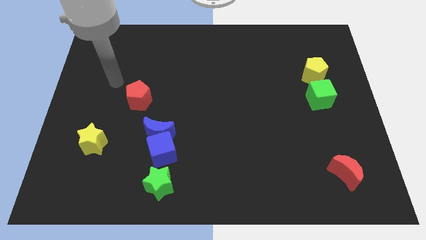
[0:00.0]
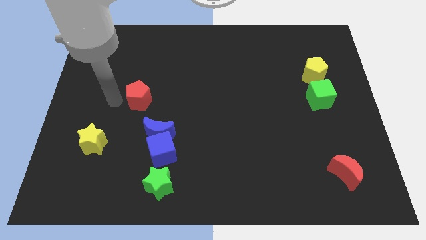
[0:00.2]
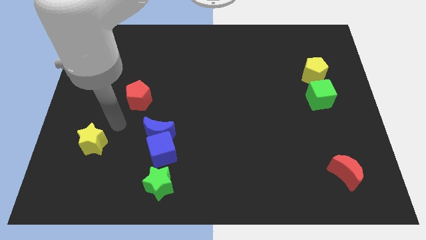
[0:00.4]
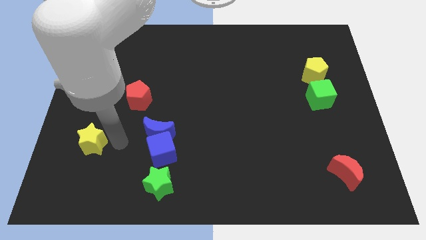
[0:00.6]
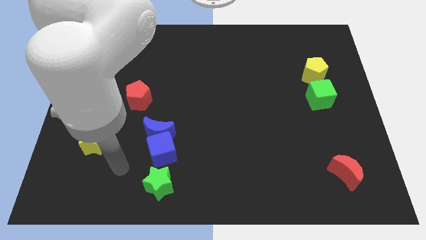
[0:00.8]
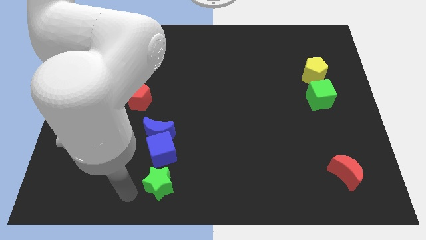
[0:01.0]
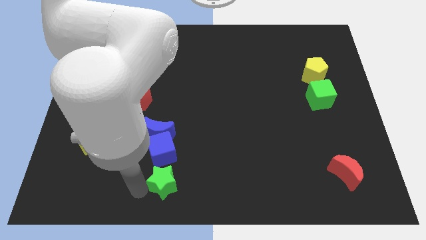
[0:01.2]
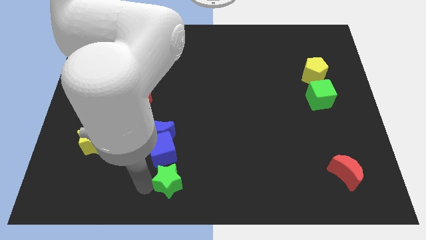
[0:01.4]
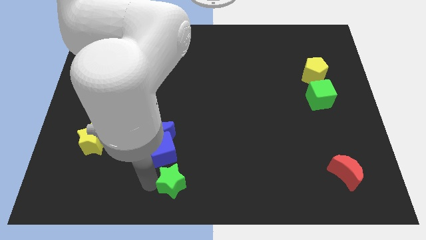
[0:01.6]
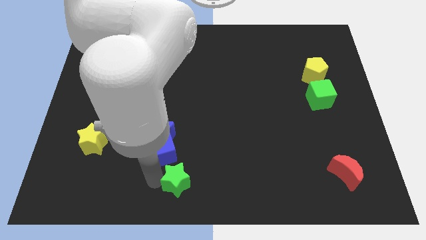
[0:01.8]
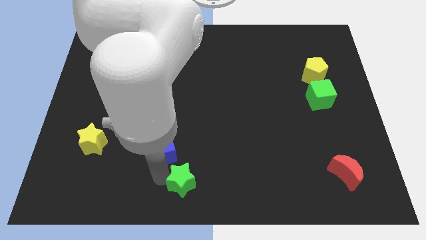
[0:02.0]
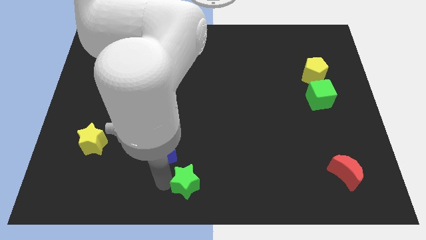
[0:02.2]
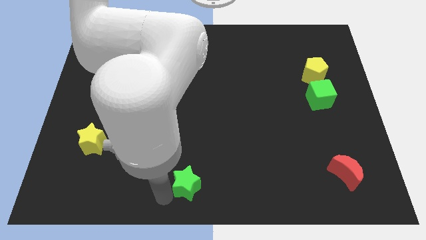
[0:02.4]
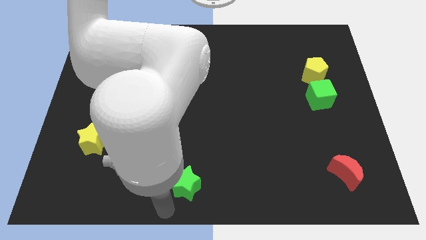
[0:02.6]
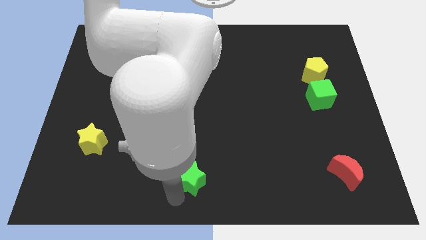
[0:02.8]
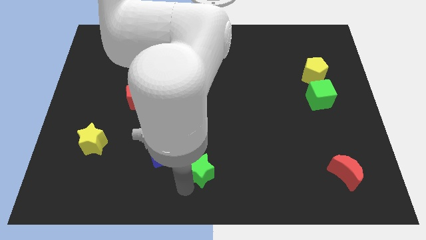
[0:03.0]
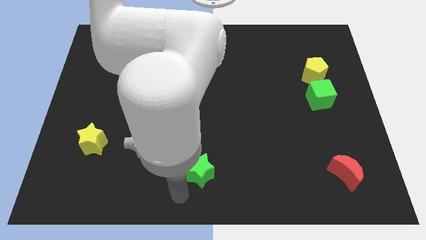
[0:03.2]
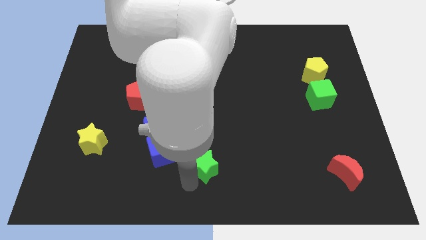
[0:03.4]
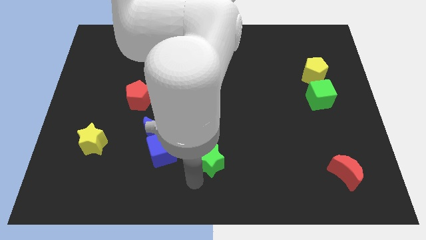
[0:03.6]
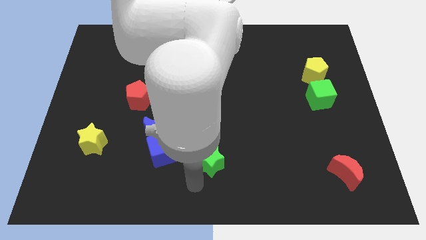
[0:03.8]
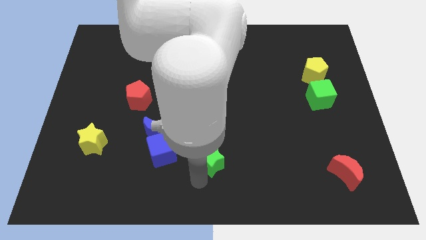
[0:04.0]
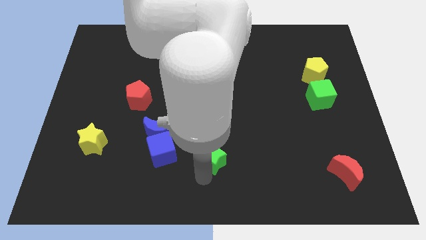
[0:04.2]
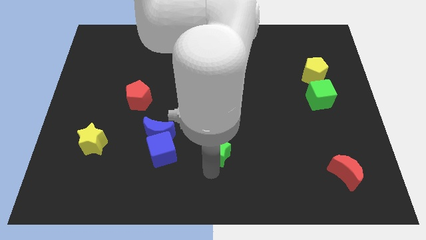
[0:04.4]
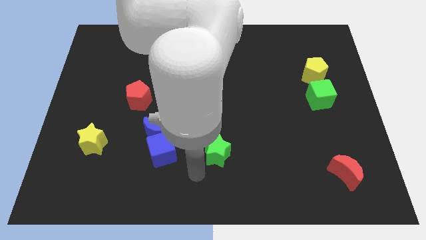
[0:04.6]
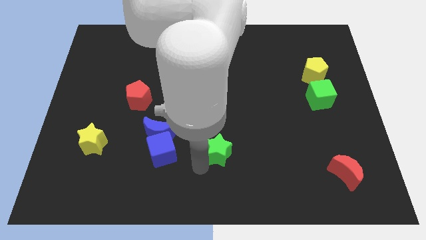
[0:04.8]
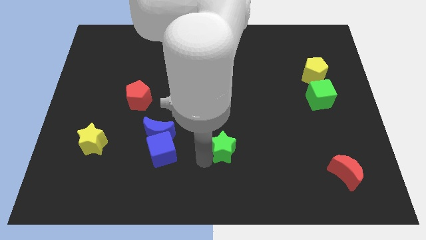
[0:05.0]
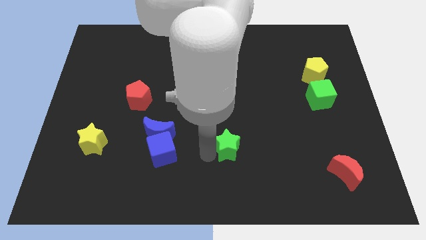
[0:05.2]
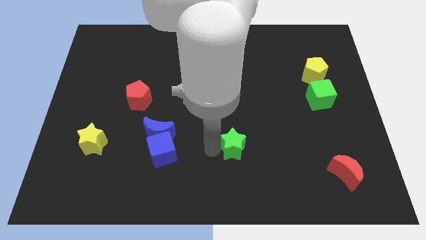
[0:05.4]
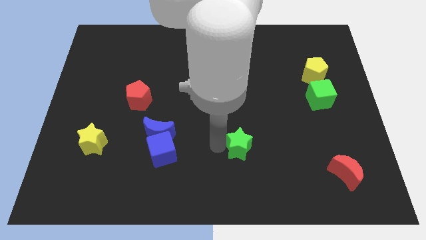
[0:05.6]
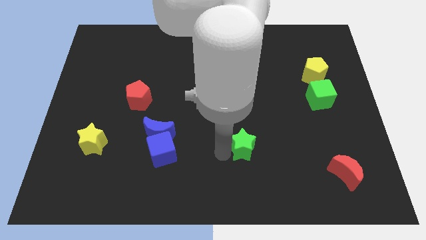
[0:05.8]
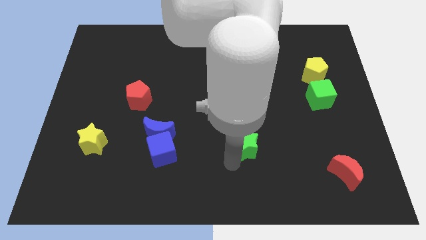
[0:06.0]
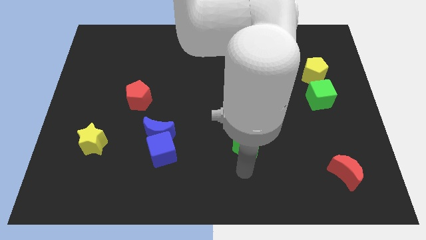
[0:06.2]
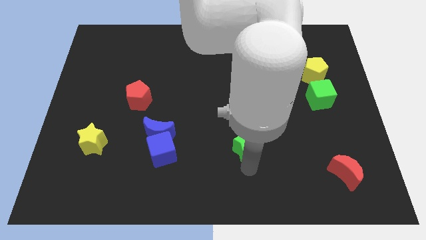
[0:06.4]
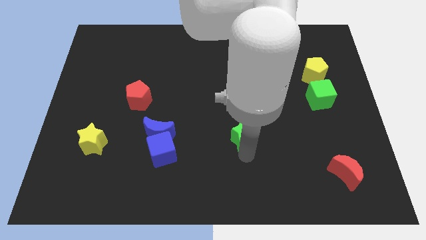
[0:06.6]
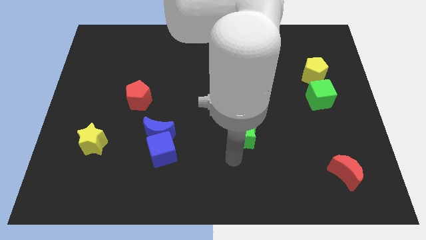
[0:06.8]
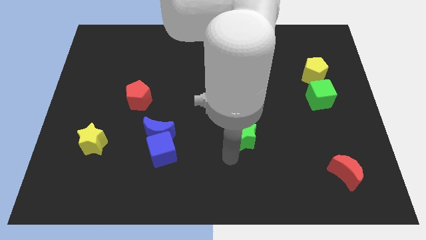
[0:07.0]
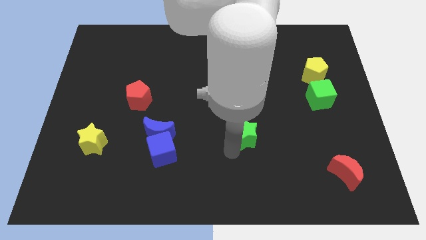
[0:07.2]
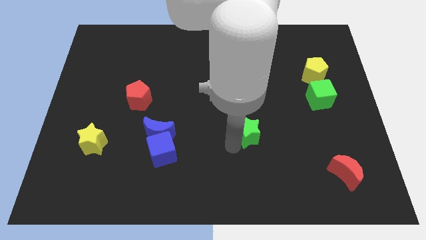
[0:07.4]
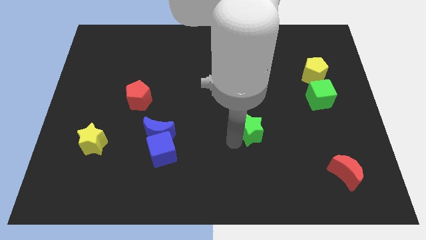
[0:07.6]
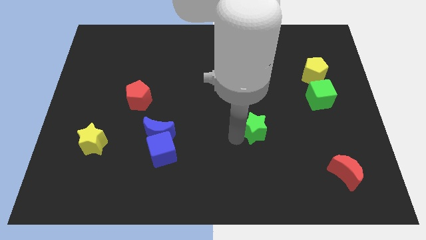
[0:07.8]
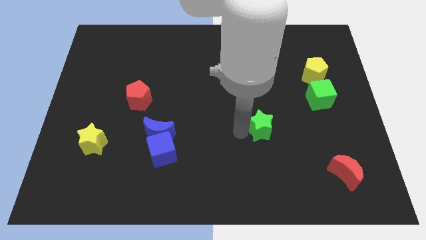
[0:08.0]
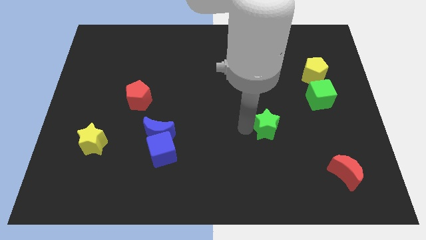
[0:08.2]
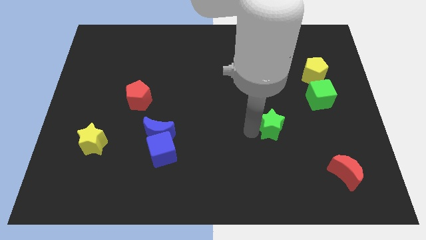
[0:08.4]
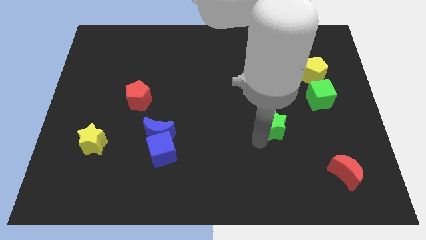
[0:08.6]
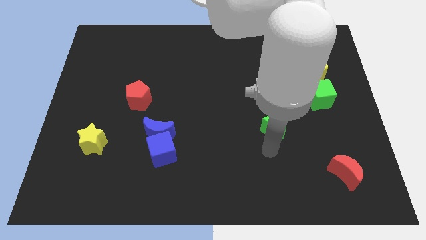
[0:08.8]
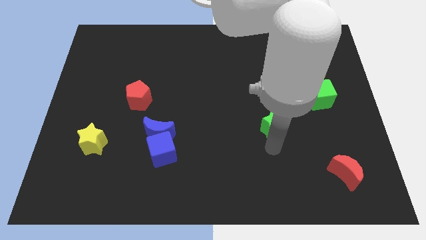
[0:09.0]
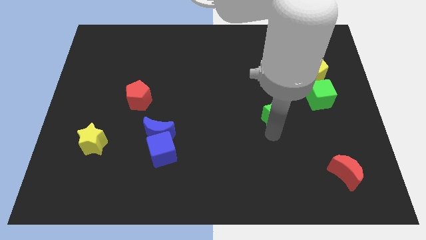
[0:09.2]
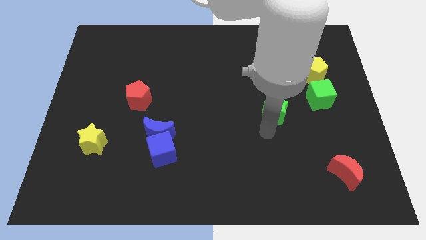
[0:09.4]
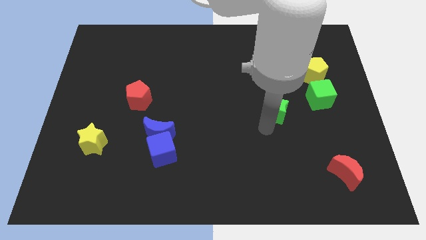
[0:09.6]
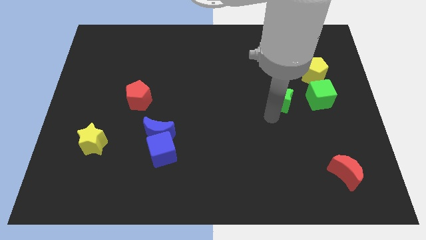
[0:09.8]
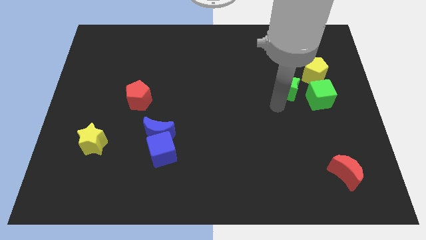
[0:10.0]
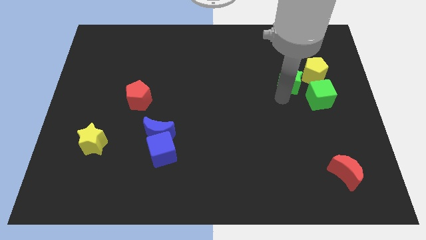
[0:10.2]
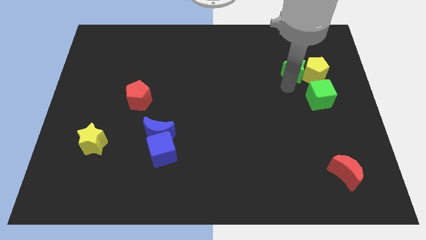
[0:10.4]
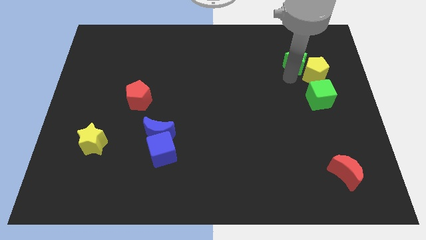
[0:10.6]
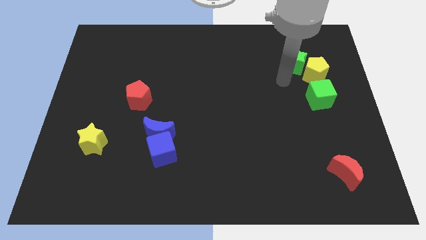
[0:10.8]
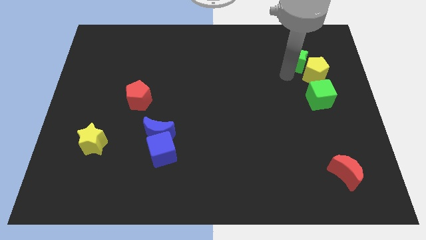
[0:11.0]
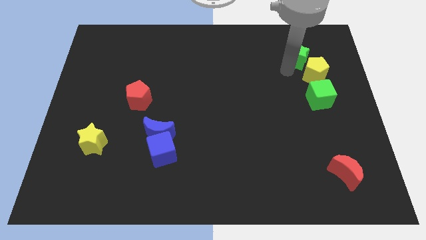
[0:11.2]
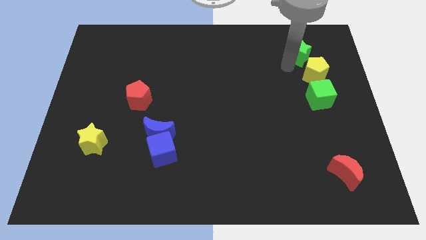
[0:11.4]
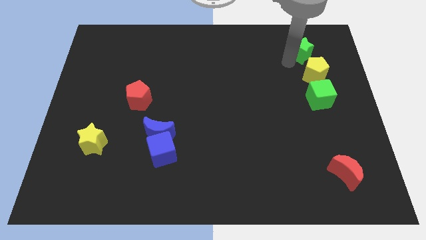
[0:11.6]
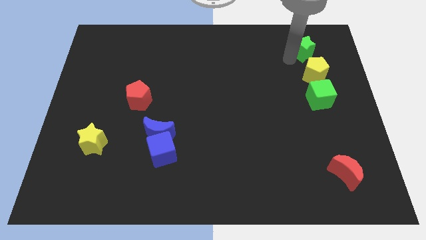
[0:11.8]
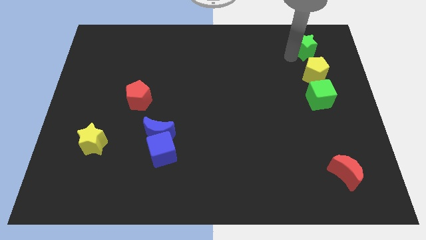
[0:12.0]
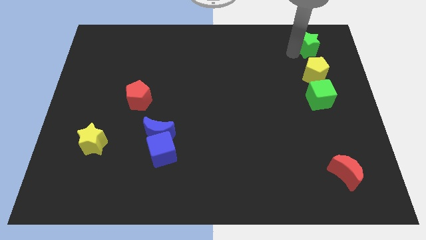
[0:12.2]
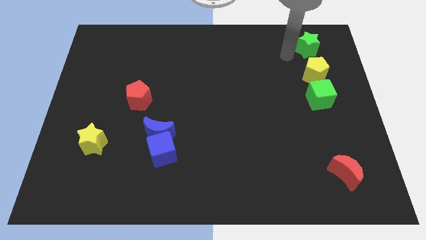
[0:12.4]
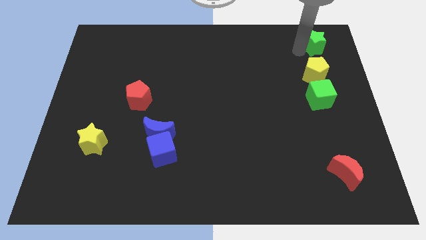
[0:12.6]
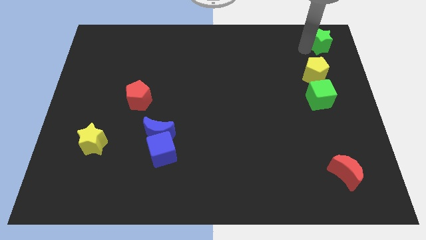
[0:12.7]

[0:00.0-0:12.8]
move the green star to the top right corner
